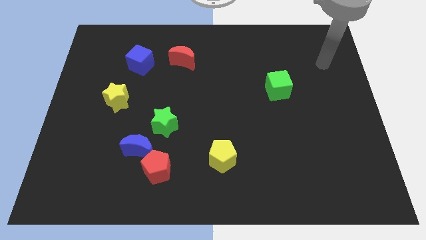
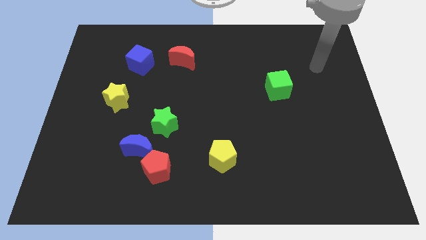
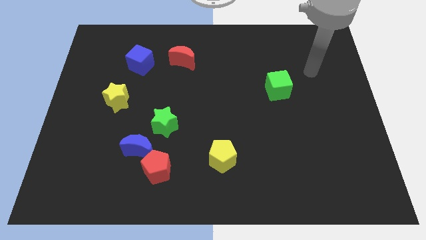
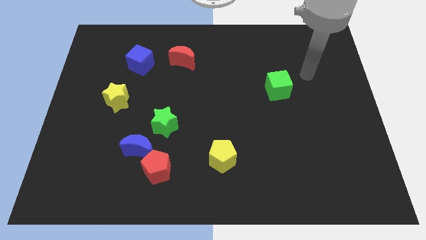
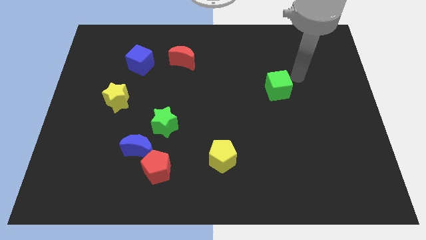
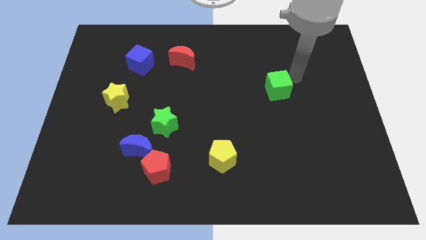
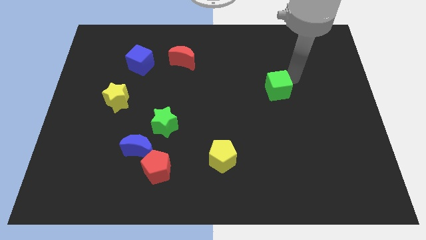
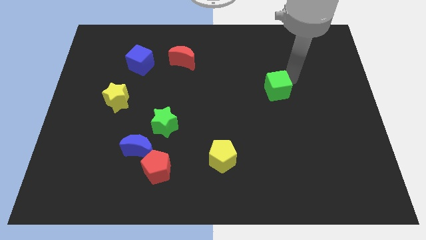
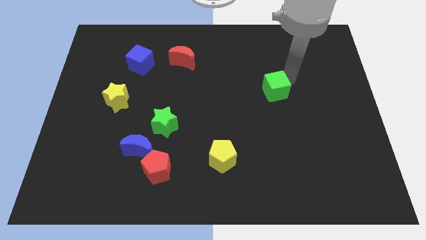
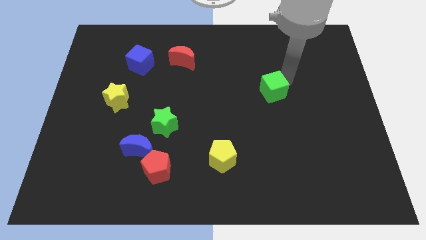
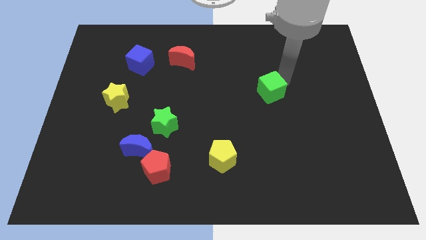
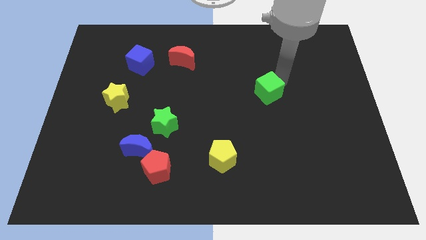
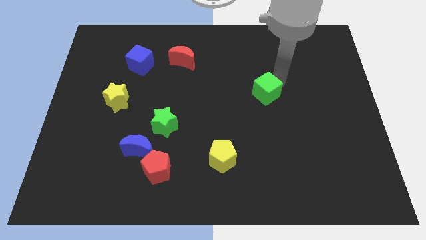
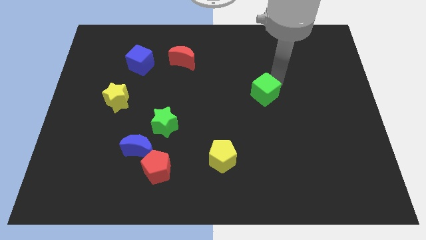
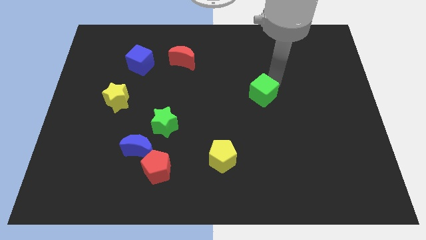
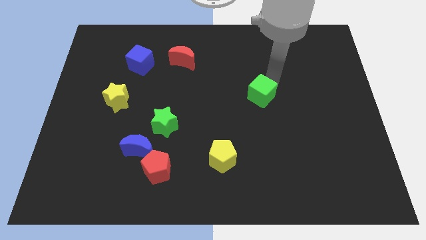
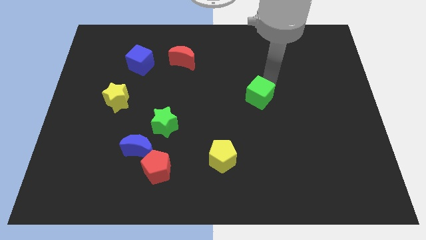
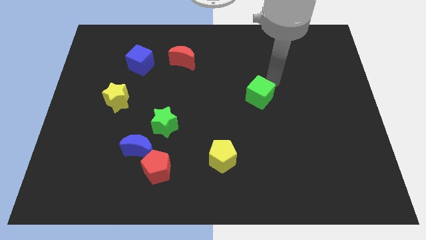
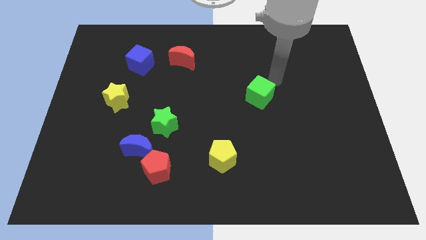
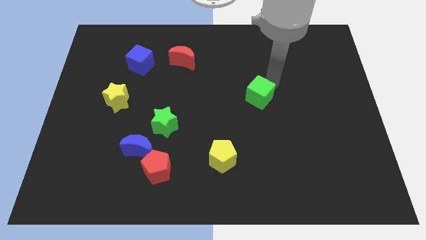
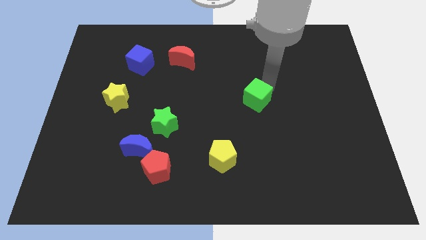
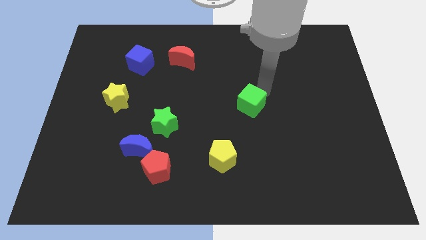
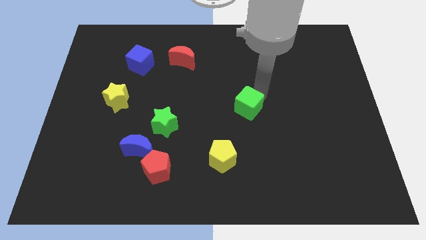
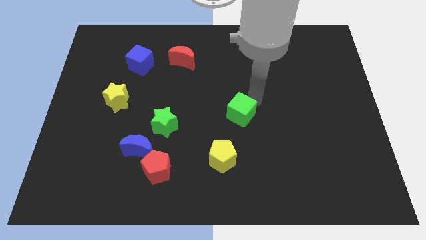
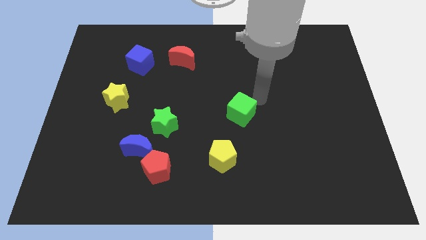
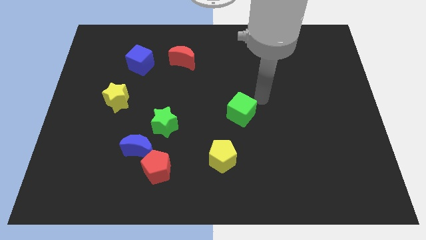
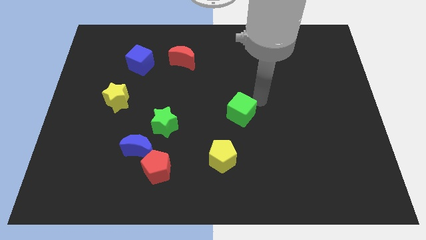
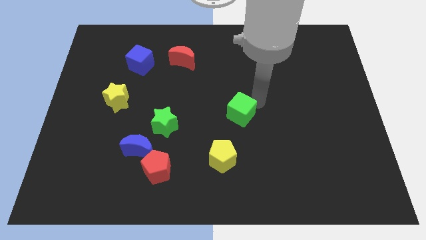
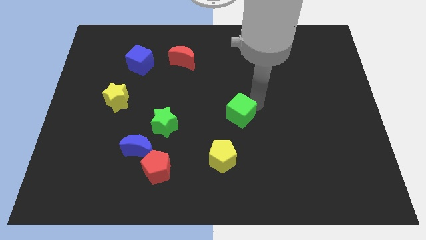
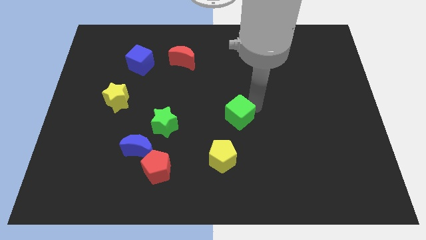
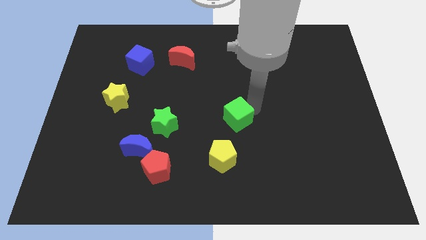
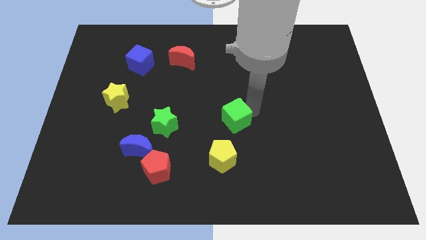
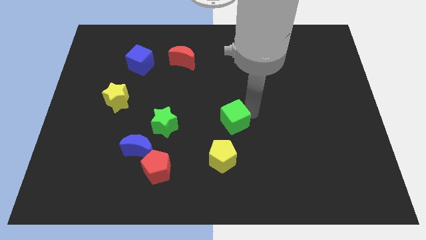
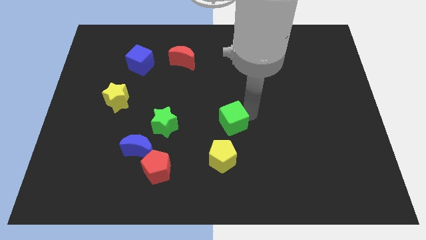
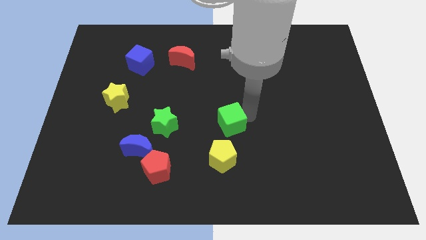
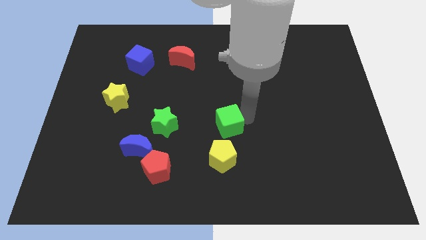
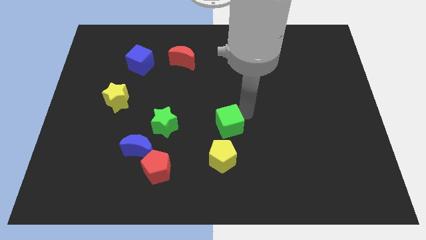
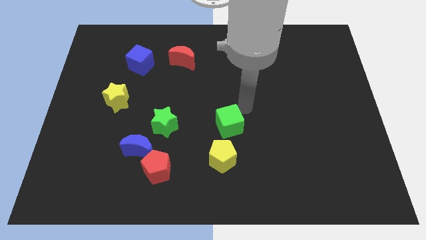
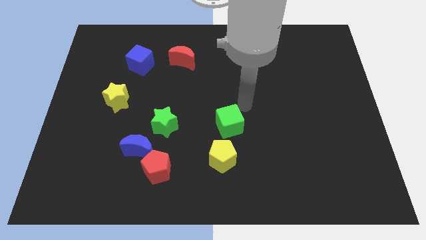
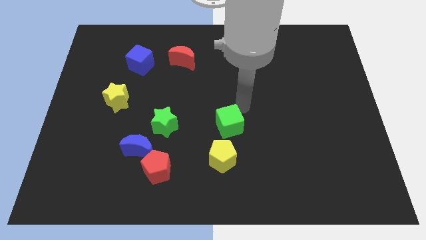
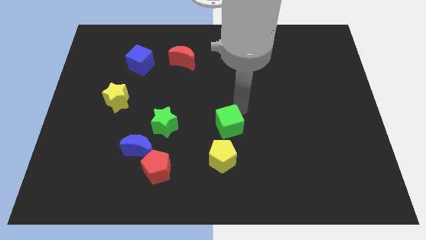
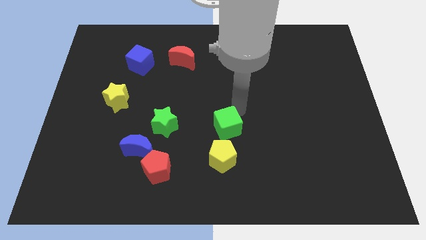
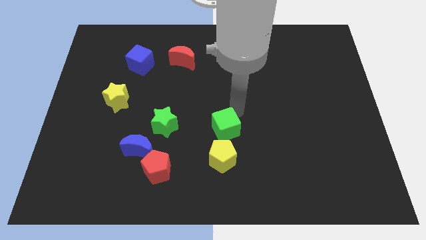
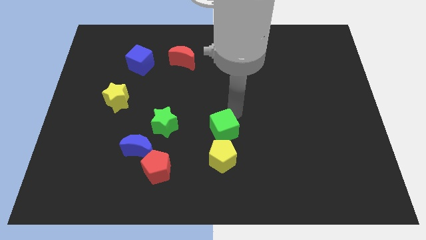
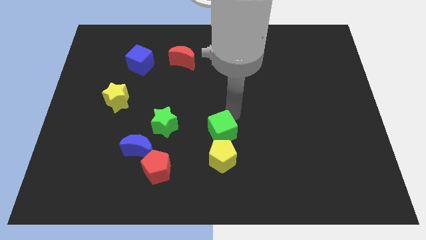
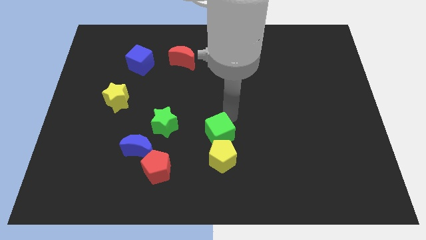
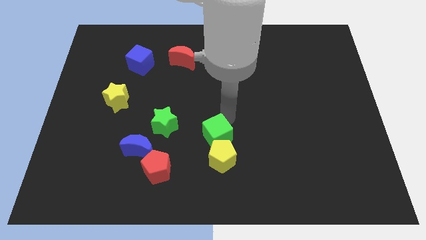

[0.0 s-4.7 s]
push the green cube diagonally downwards and left

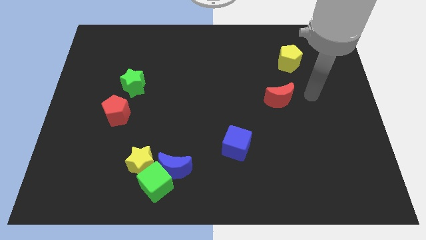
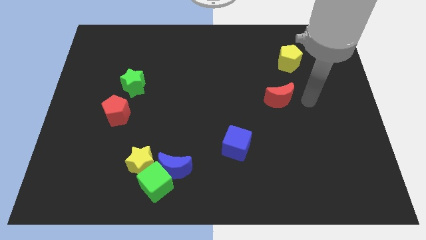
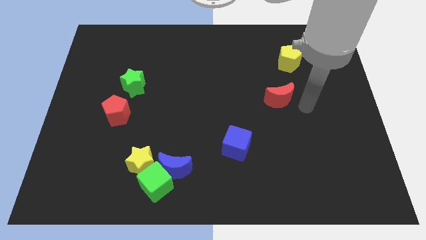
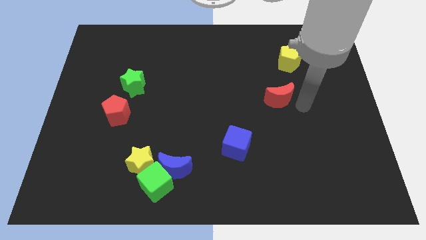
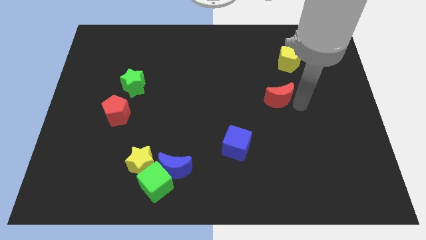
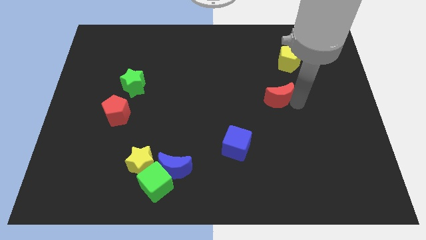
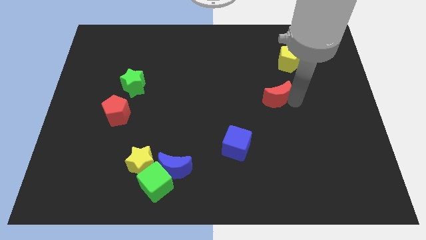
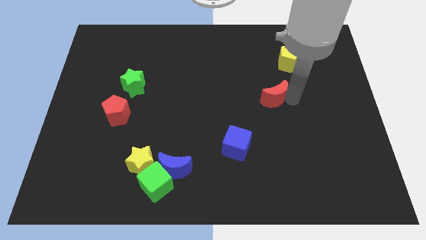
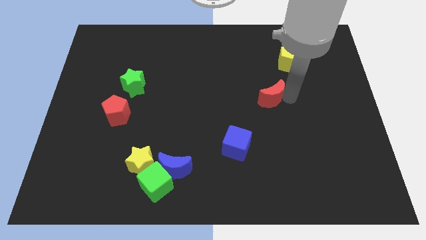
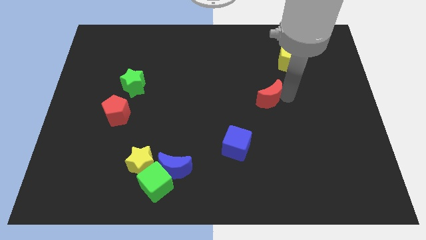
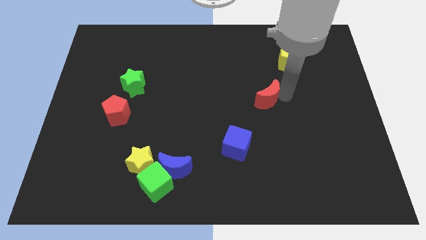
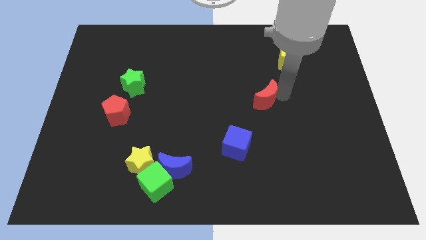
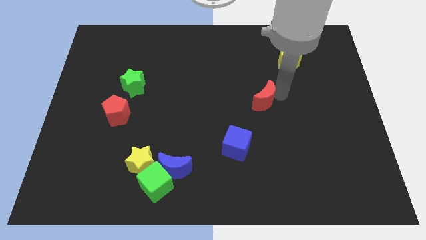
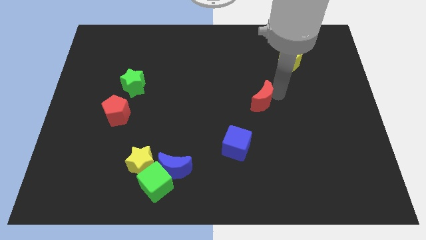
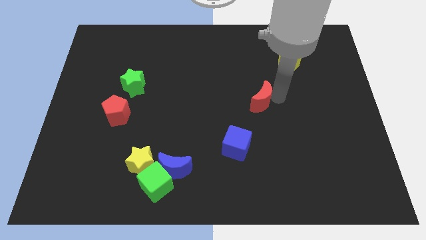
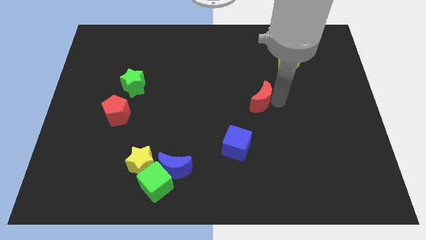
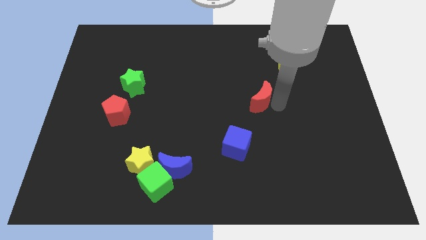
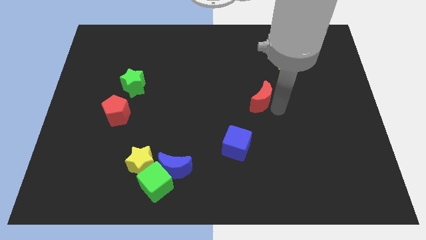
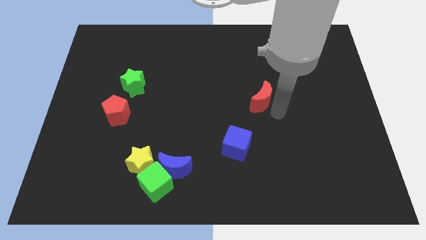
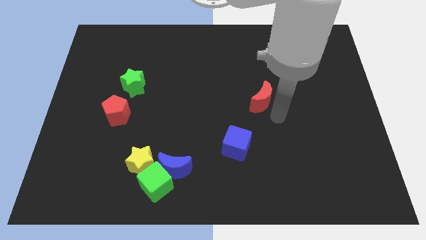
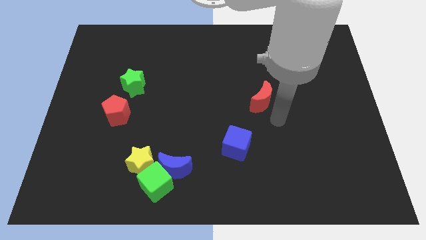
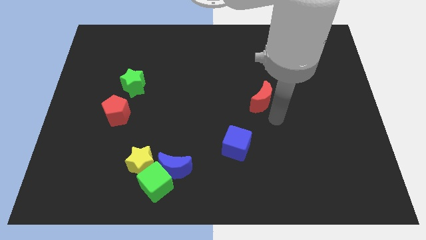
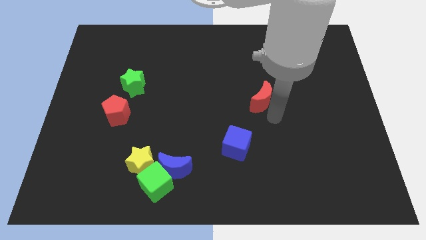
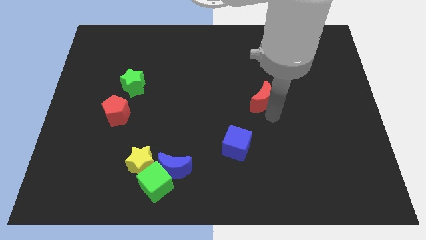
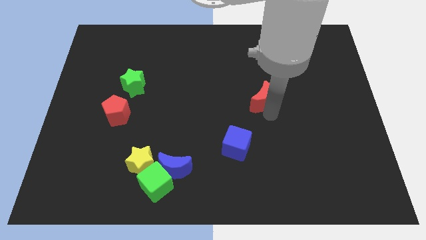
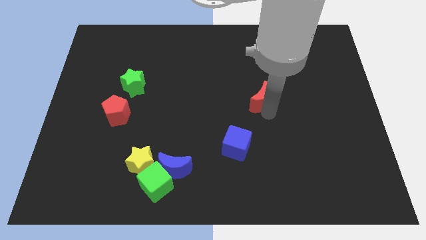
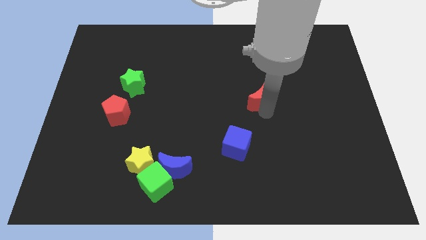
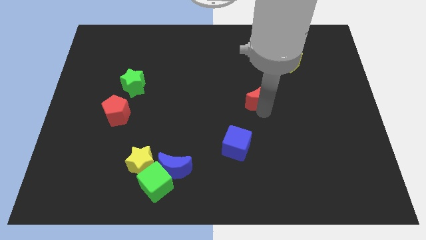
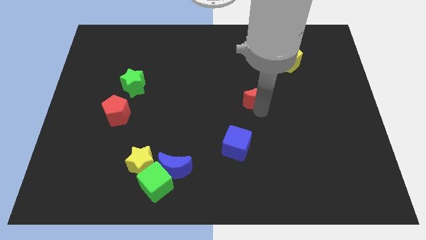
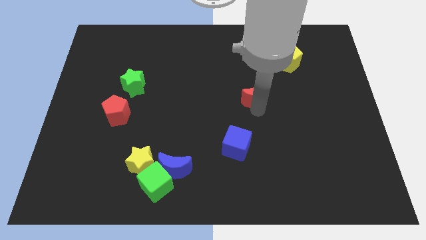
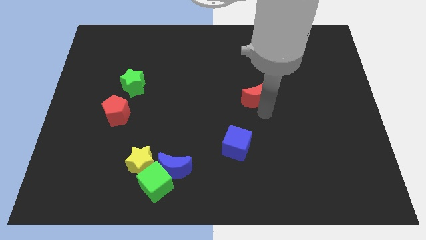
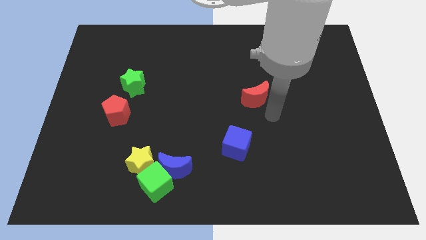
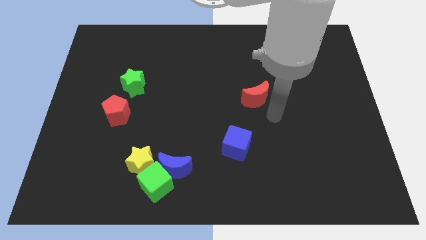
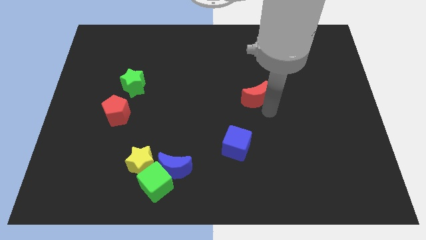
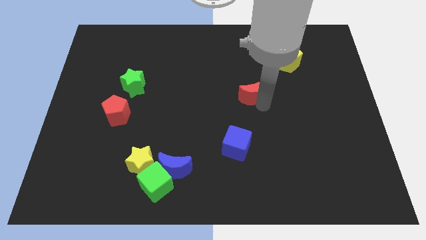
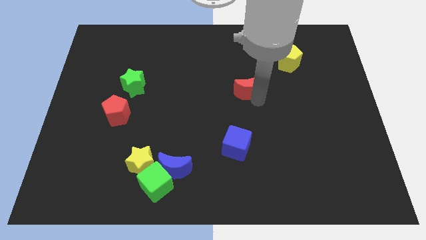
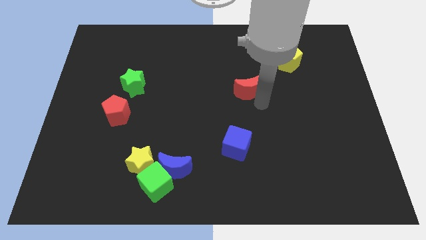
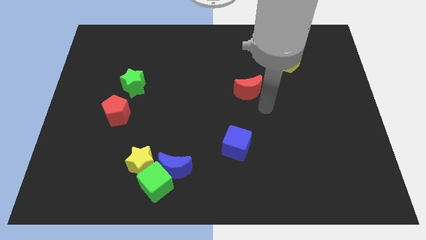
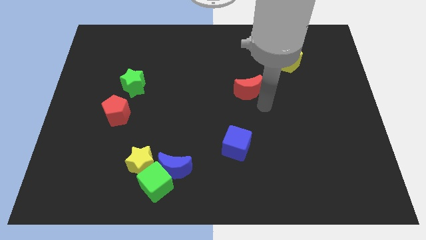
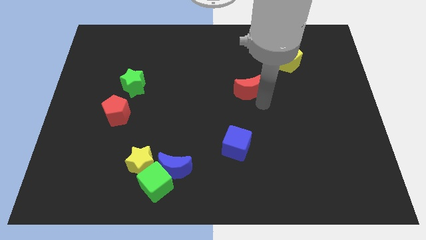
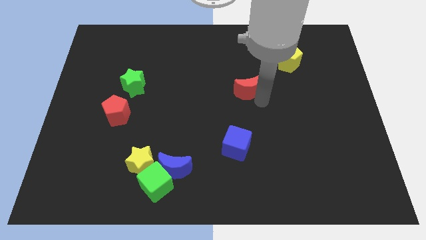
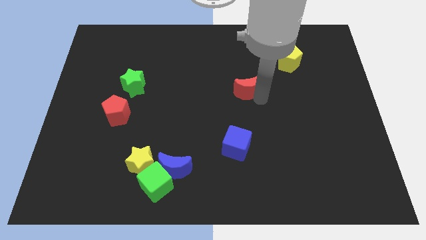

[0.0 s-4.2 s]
push the red moon upwards and to the left slightly
